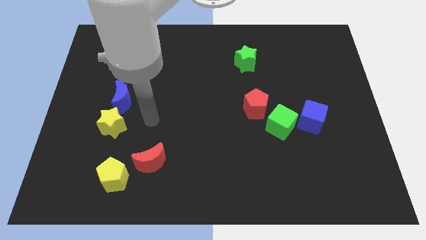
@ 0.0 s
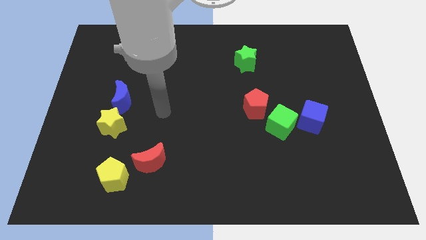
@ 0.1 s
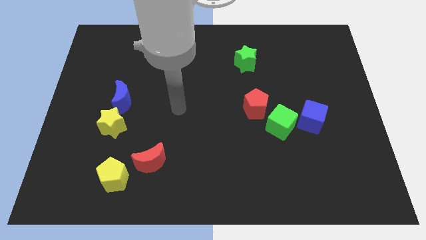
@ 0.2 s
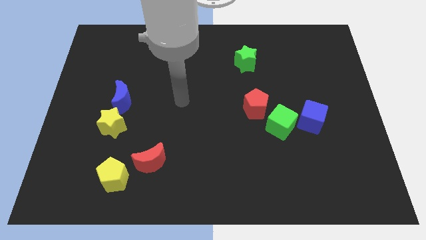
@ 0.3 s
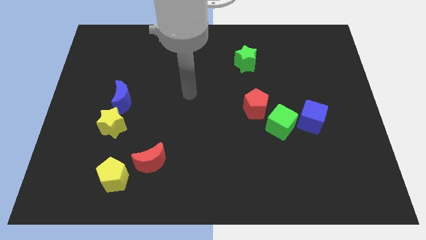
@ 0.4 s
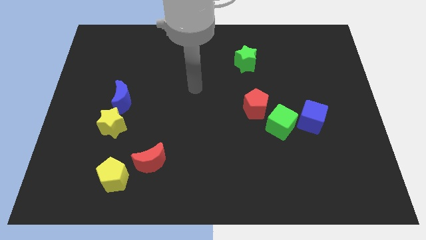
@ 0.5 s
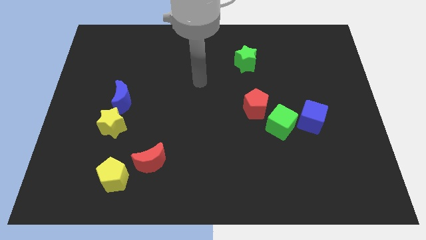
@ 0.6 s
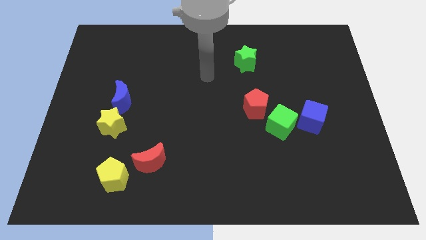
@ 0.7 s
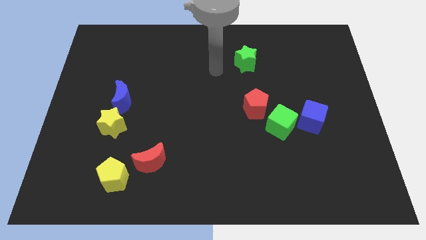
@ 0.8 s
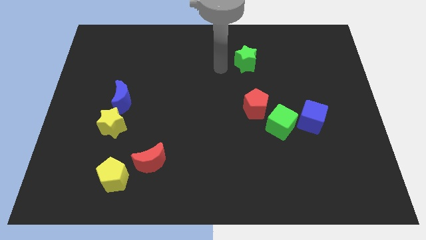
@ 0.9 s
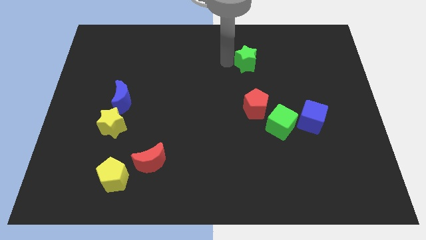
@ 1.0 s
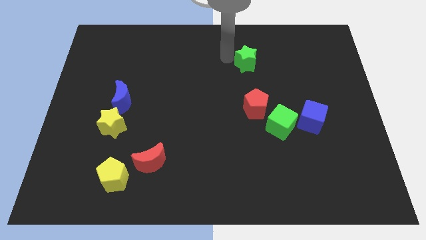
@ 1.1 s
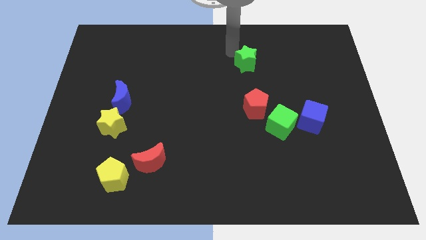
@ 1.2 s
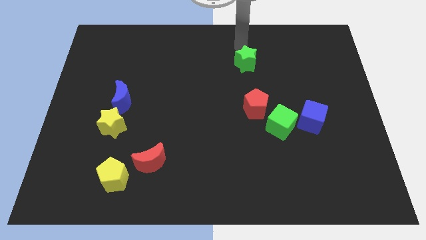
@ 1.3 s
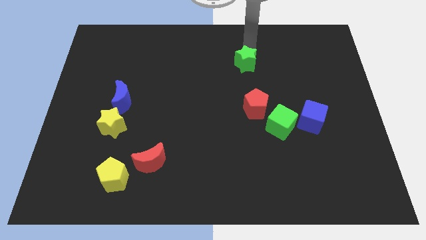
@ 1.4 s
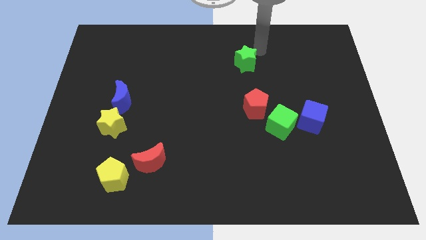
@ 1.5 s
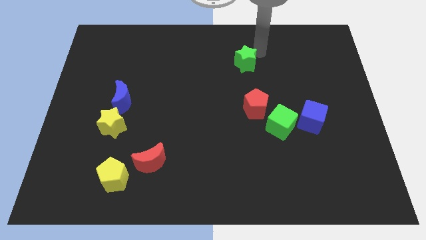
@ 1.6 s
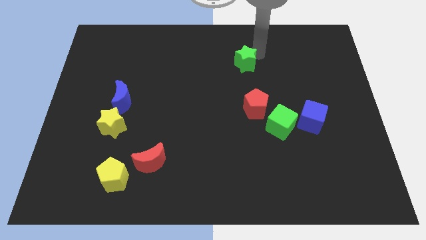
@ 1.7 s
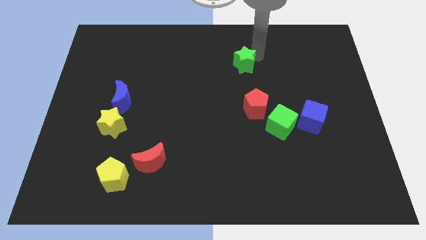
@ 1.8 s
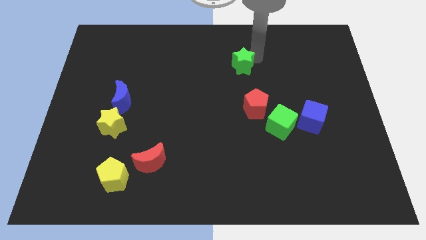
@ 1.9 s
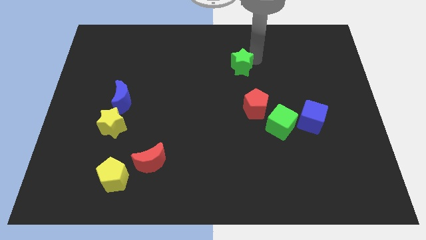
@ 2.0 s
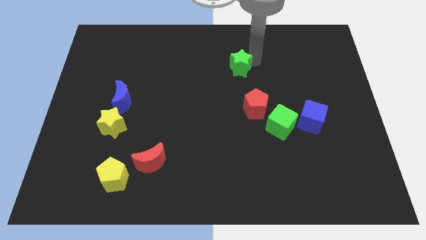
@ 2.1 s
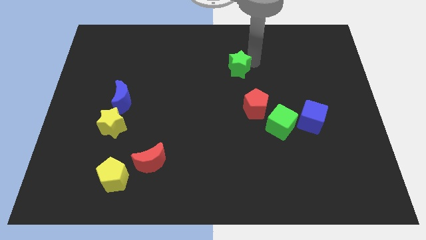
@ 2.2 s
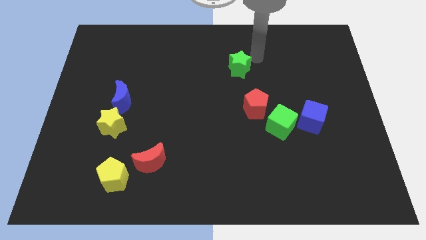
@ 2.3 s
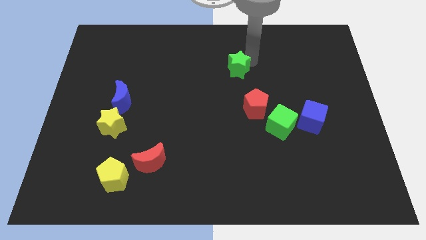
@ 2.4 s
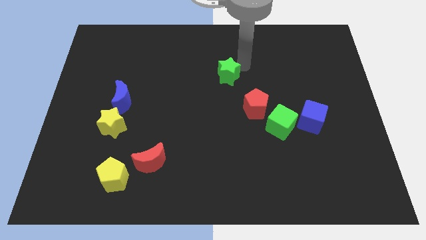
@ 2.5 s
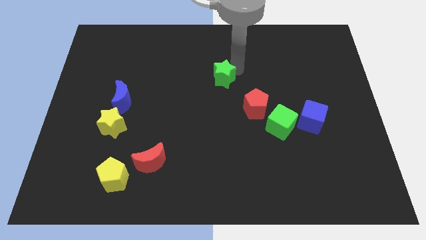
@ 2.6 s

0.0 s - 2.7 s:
push the green star downwards and then left a little bit

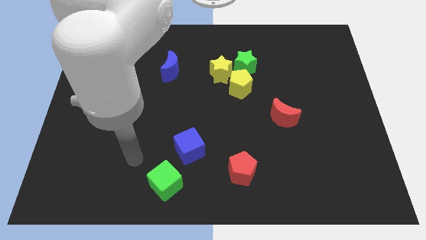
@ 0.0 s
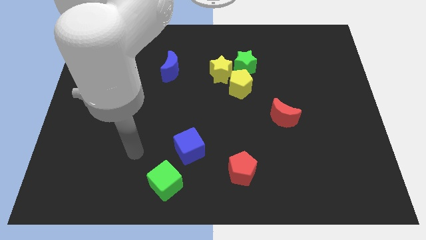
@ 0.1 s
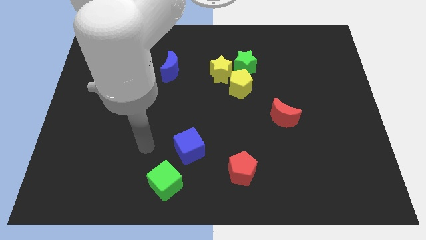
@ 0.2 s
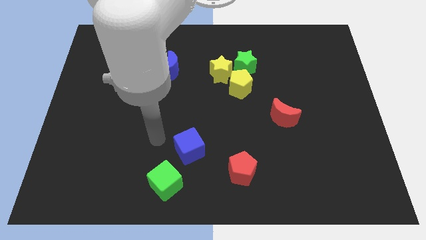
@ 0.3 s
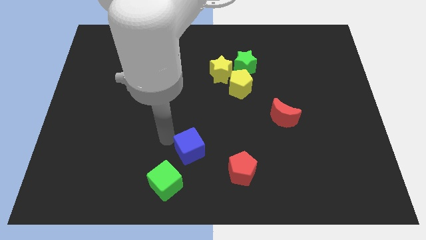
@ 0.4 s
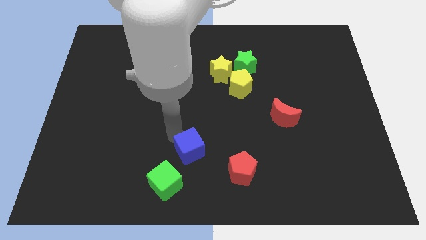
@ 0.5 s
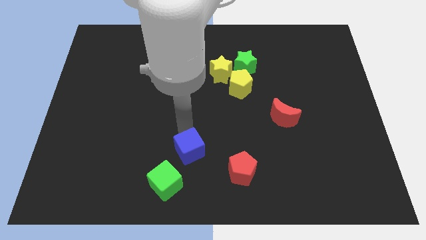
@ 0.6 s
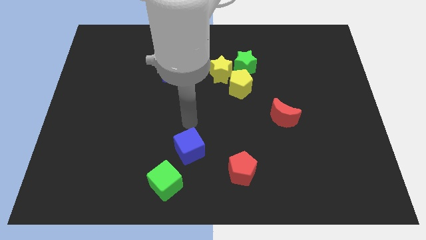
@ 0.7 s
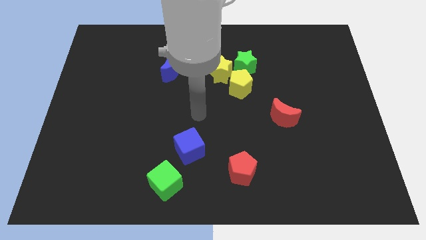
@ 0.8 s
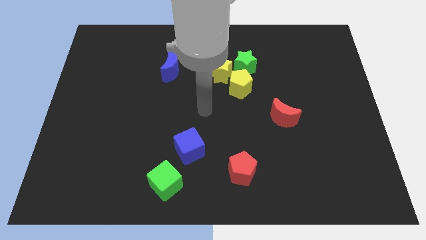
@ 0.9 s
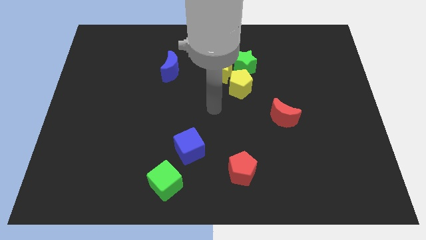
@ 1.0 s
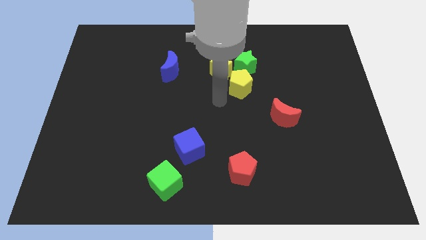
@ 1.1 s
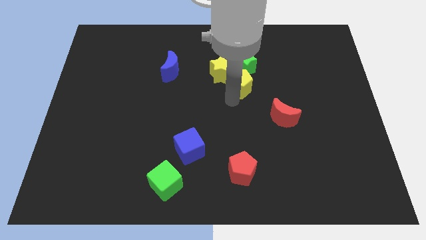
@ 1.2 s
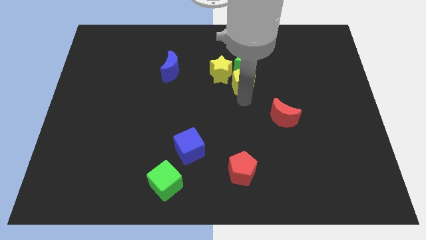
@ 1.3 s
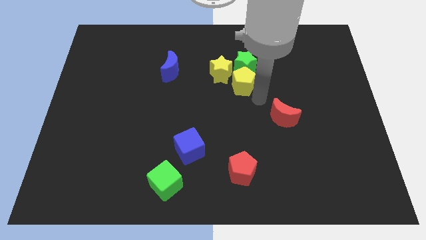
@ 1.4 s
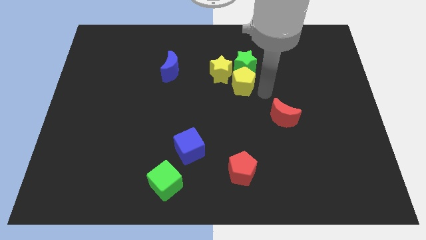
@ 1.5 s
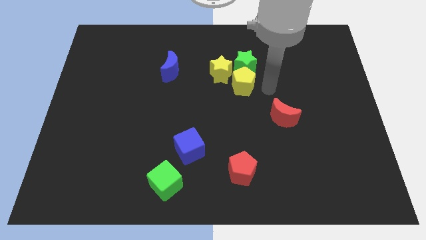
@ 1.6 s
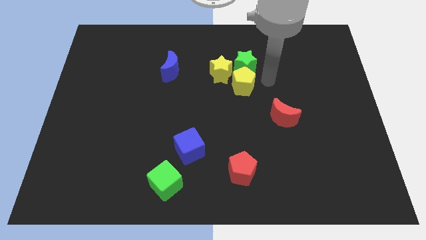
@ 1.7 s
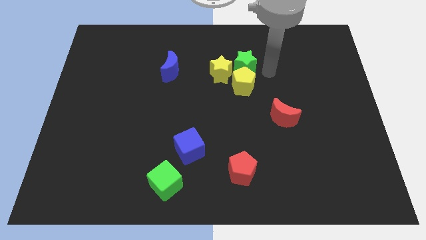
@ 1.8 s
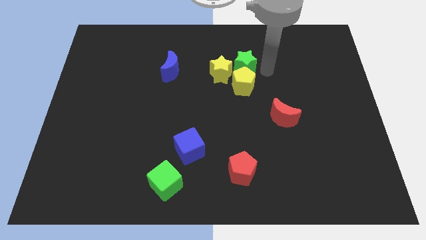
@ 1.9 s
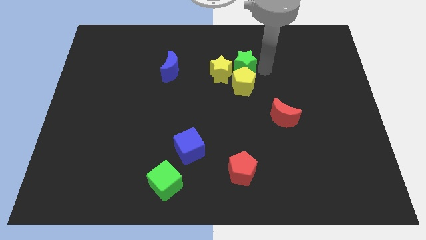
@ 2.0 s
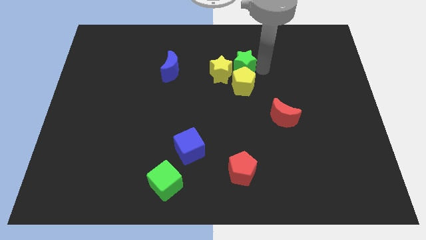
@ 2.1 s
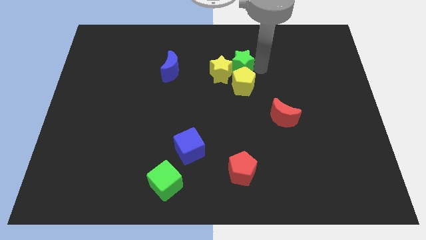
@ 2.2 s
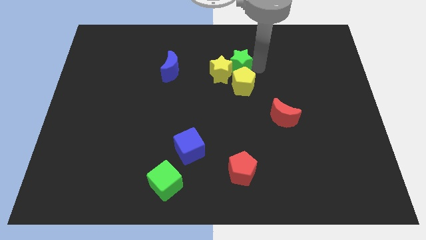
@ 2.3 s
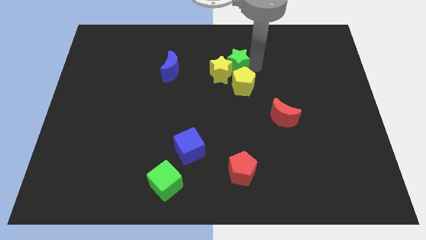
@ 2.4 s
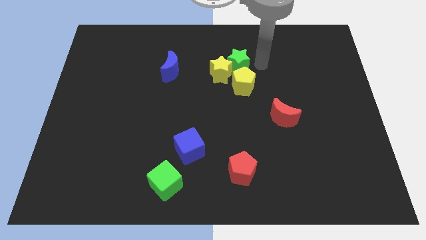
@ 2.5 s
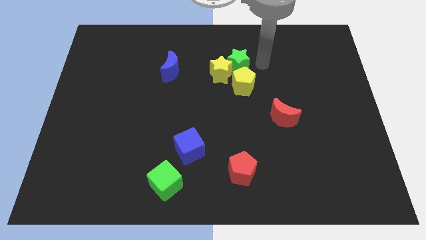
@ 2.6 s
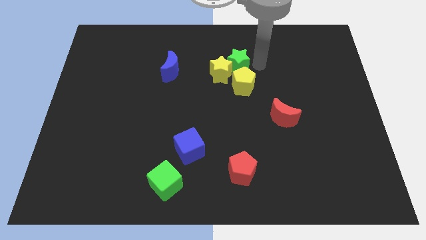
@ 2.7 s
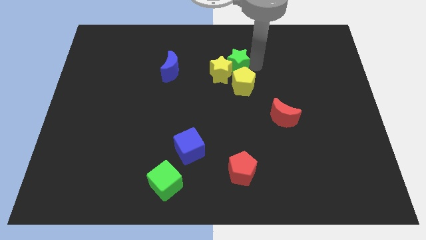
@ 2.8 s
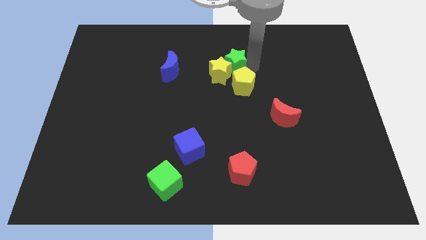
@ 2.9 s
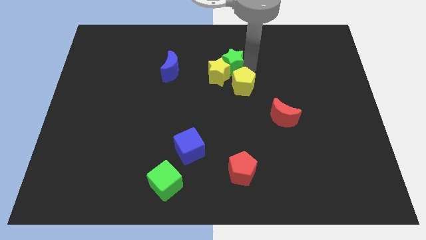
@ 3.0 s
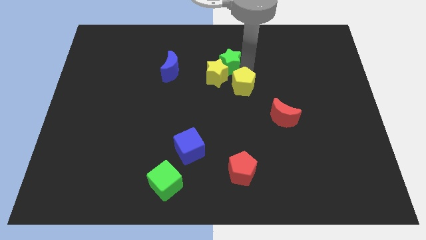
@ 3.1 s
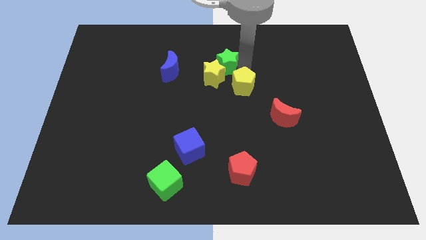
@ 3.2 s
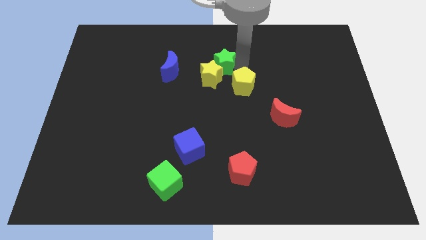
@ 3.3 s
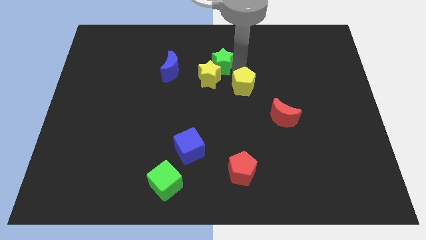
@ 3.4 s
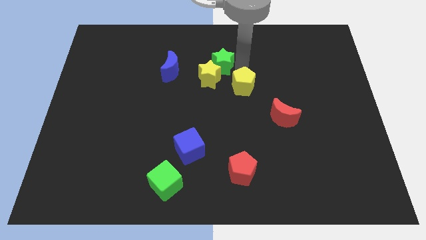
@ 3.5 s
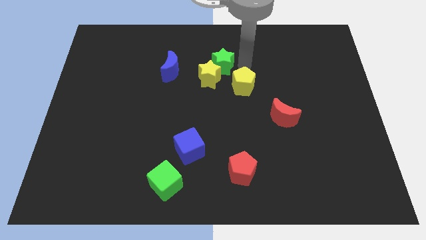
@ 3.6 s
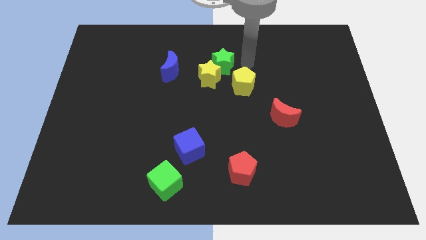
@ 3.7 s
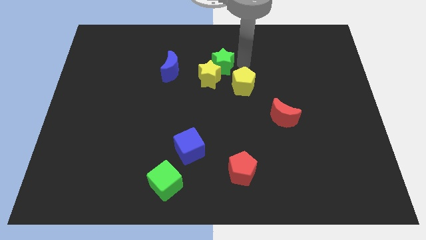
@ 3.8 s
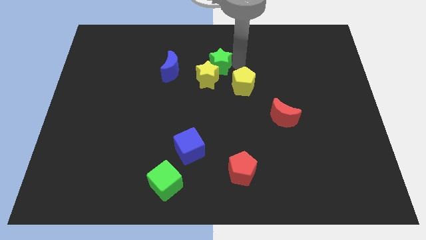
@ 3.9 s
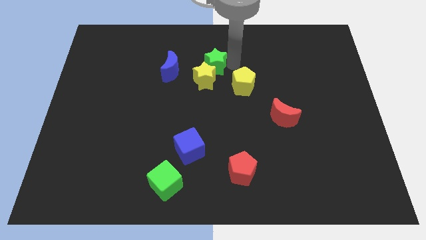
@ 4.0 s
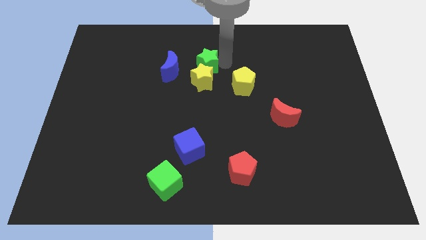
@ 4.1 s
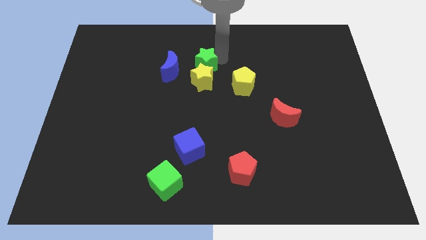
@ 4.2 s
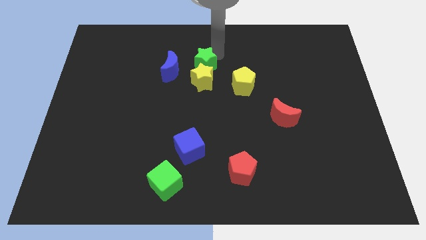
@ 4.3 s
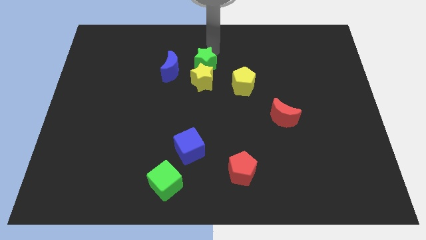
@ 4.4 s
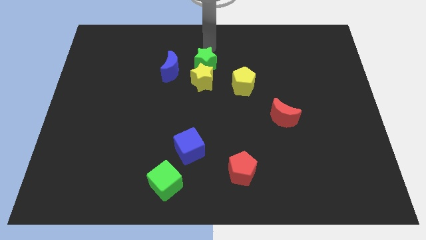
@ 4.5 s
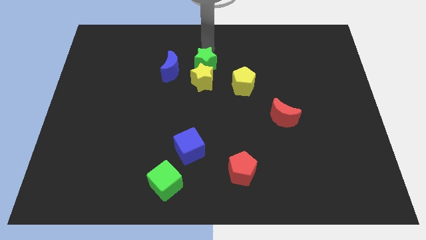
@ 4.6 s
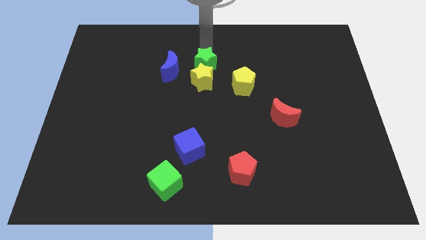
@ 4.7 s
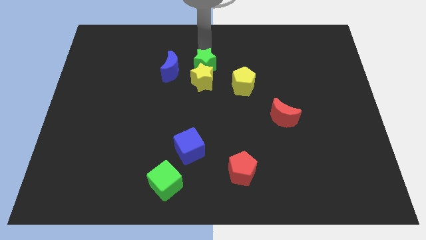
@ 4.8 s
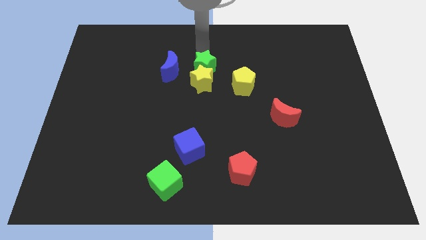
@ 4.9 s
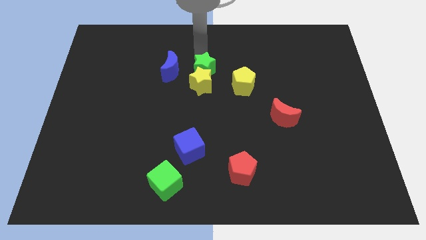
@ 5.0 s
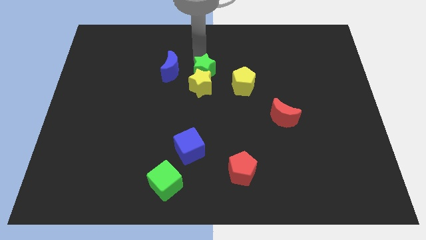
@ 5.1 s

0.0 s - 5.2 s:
push the green star down and to the left diagonally a little bit
